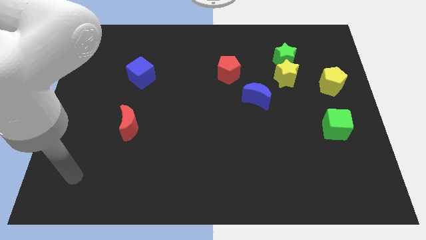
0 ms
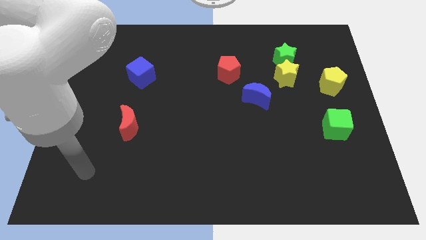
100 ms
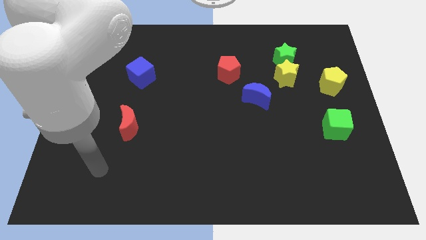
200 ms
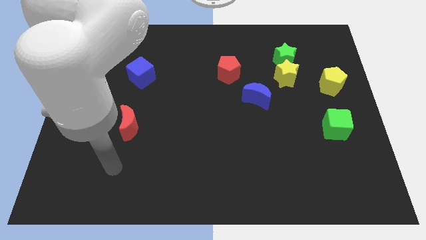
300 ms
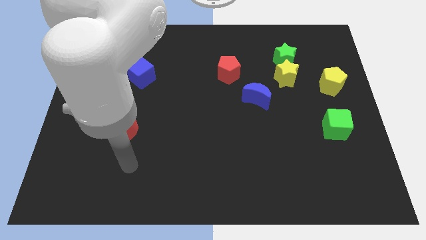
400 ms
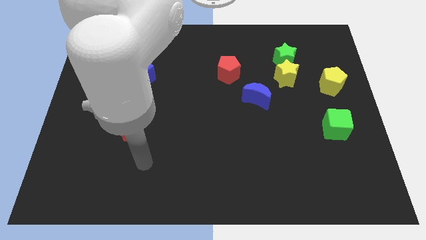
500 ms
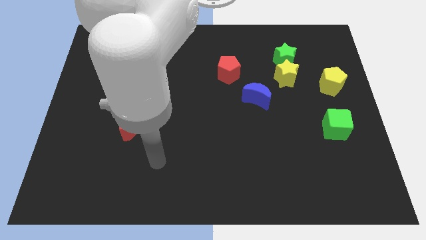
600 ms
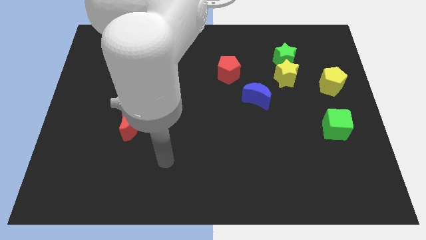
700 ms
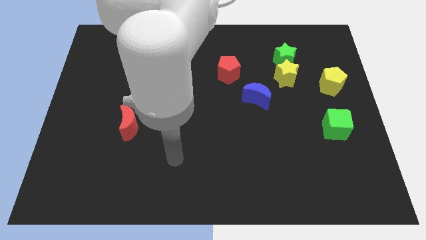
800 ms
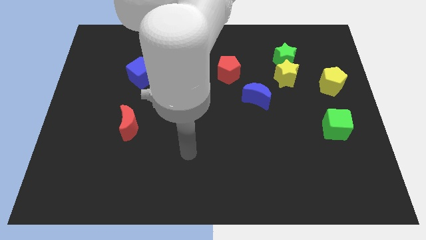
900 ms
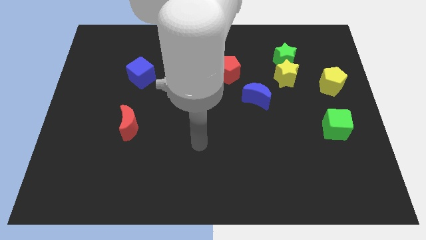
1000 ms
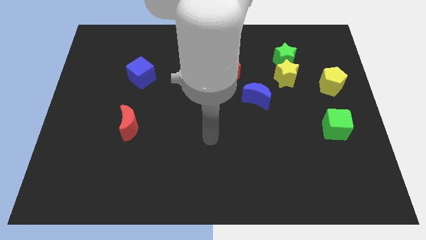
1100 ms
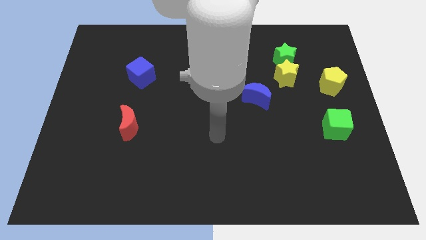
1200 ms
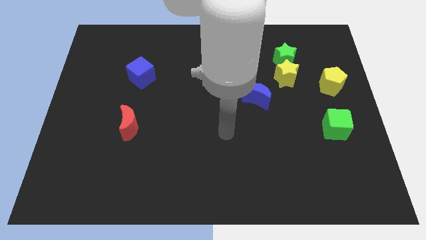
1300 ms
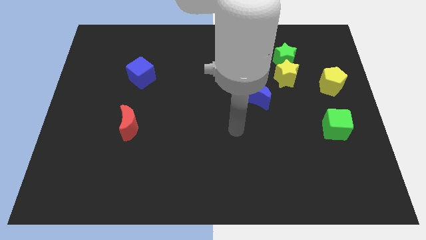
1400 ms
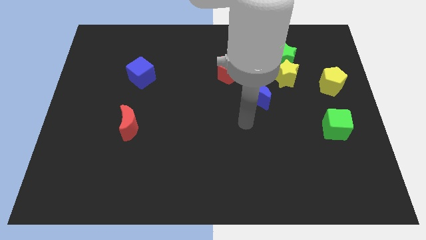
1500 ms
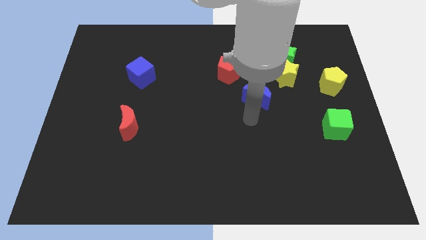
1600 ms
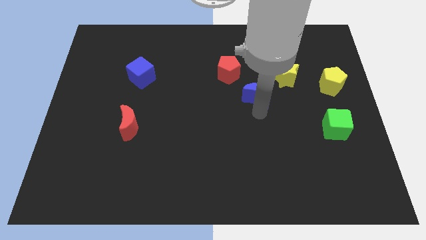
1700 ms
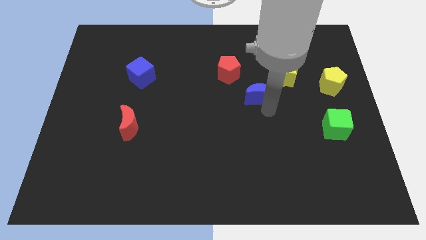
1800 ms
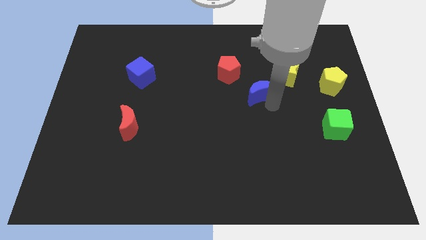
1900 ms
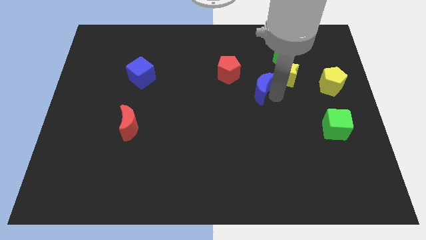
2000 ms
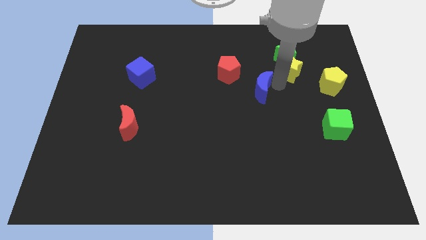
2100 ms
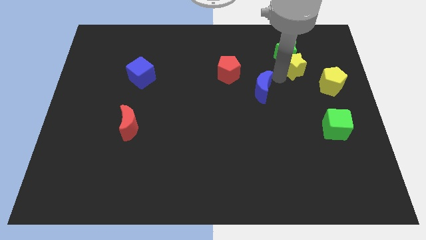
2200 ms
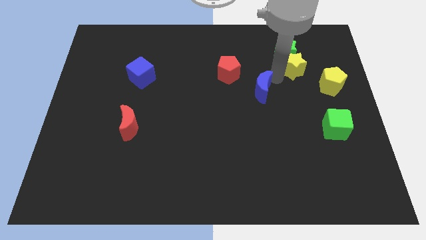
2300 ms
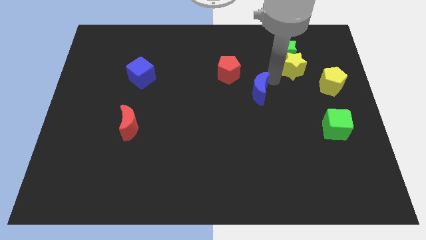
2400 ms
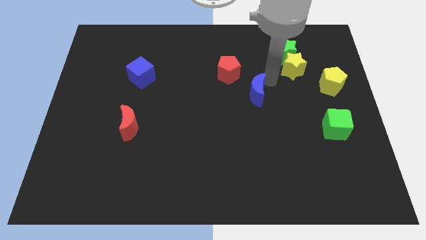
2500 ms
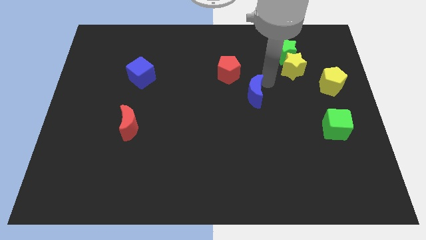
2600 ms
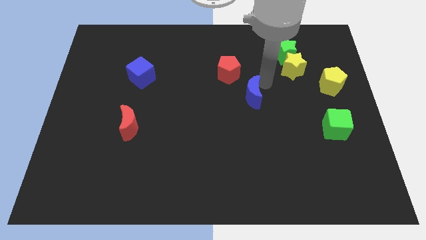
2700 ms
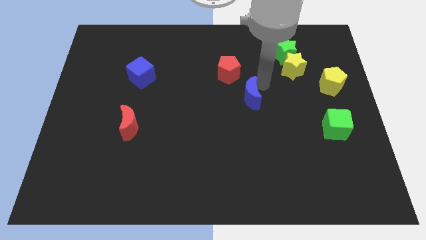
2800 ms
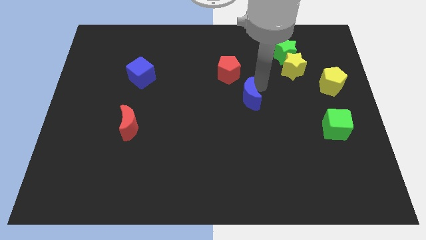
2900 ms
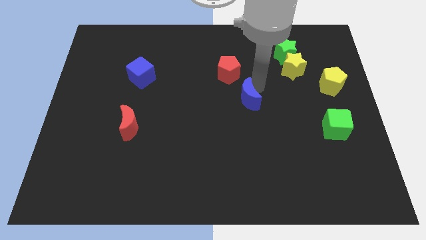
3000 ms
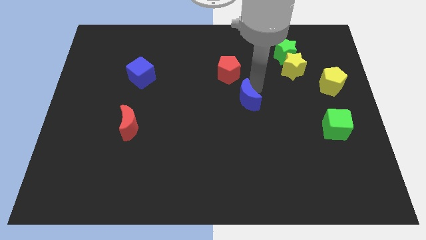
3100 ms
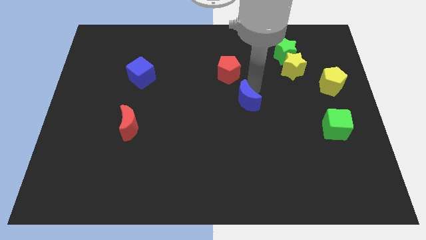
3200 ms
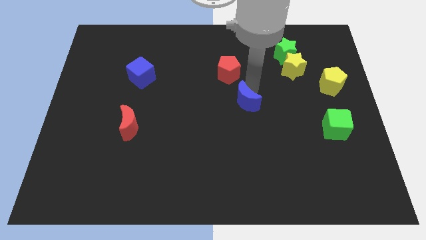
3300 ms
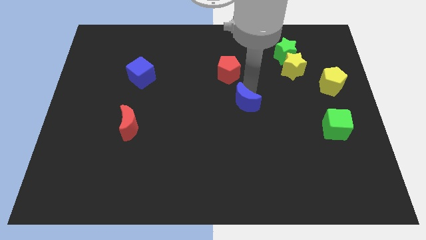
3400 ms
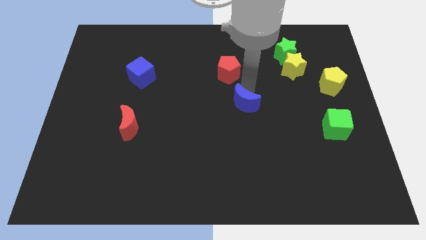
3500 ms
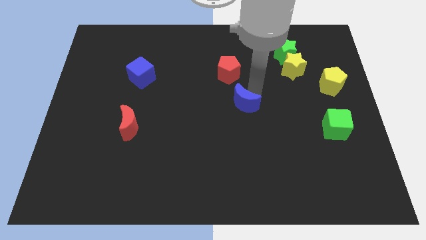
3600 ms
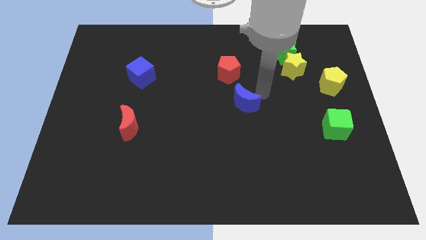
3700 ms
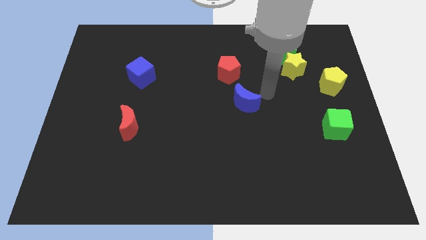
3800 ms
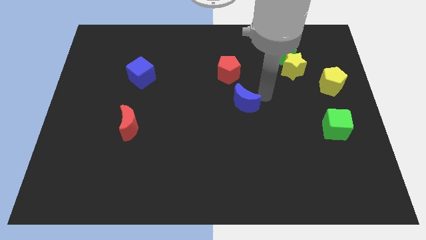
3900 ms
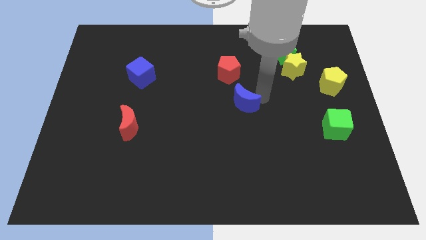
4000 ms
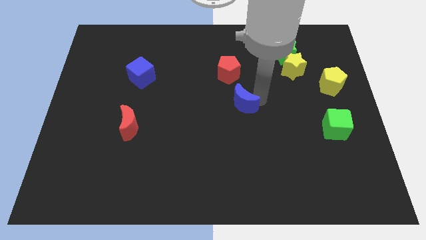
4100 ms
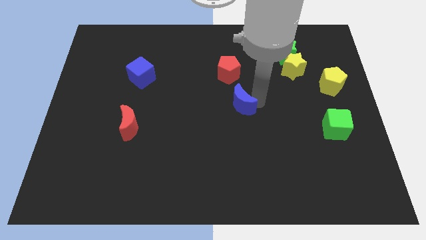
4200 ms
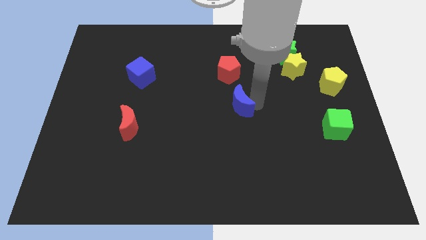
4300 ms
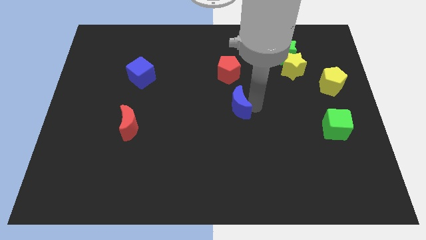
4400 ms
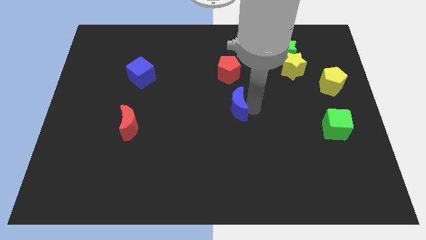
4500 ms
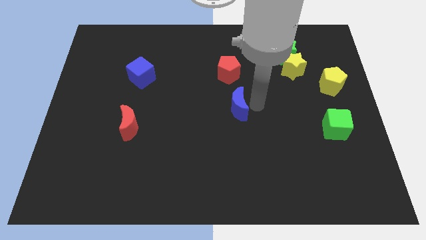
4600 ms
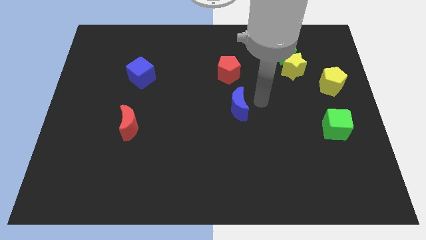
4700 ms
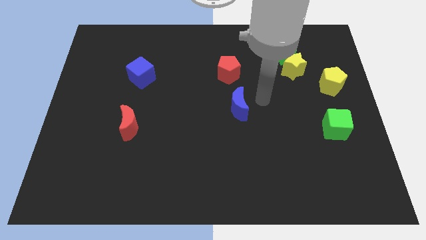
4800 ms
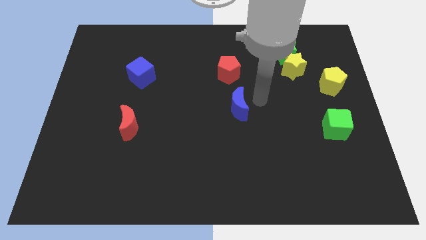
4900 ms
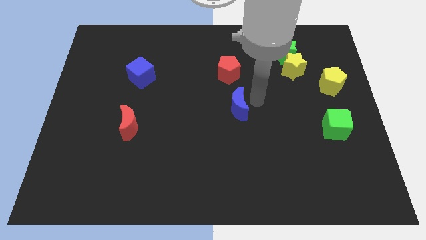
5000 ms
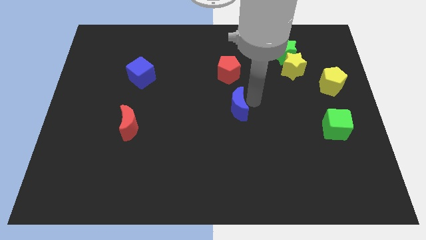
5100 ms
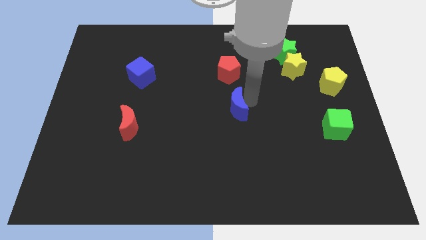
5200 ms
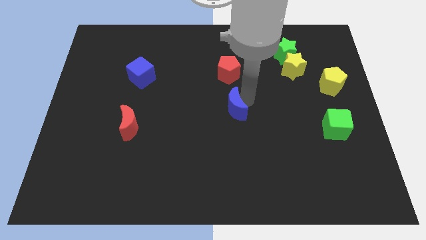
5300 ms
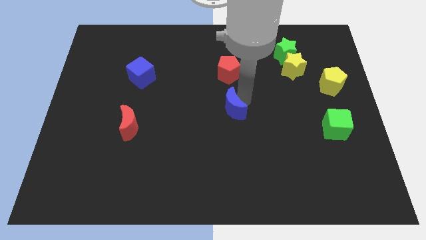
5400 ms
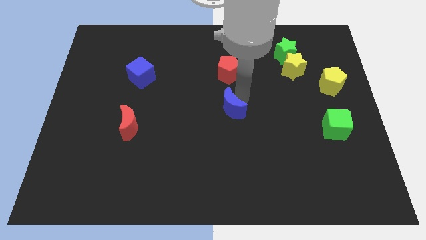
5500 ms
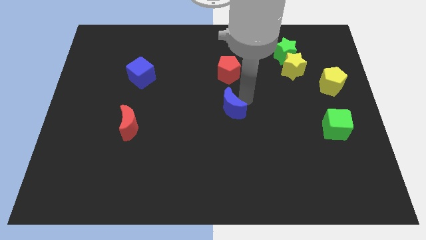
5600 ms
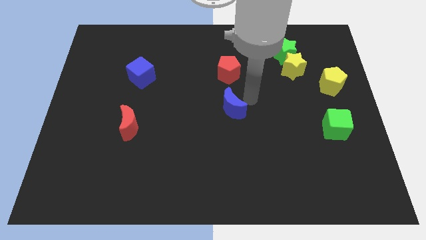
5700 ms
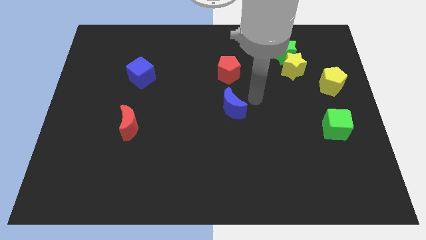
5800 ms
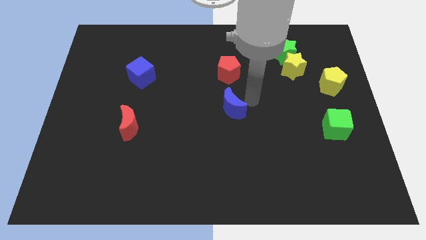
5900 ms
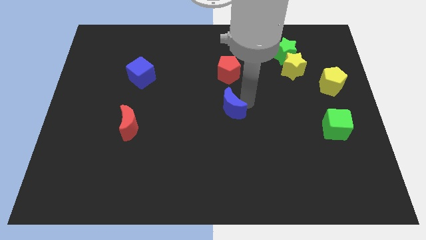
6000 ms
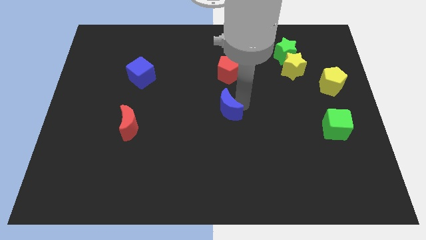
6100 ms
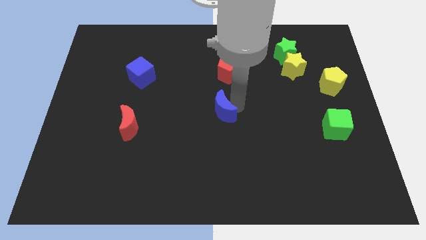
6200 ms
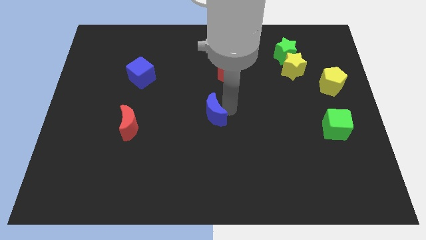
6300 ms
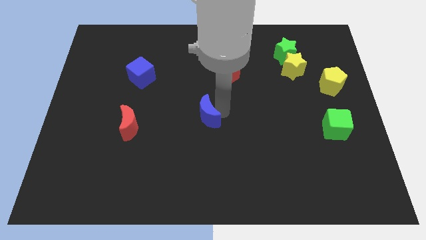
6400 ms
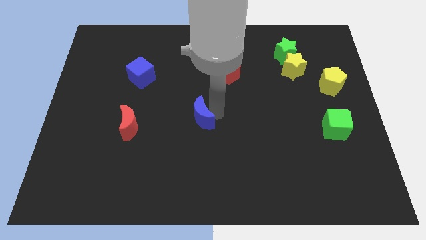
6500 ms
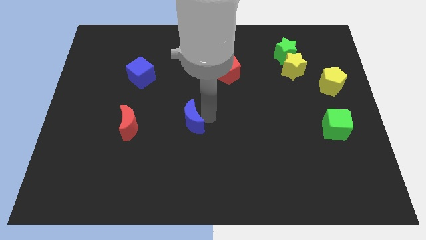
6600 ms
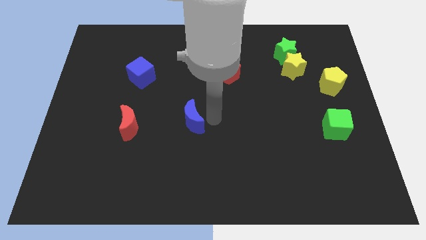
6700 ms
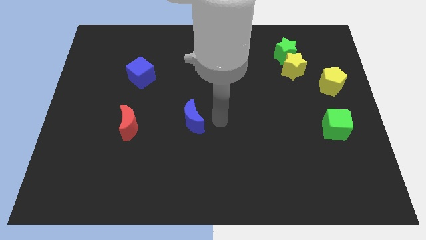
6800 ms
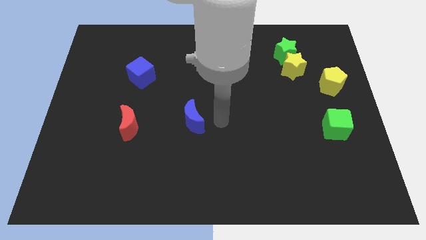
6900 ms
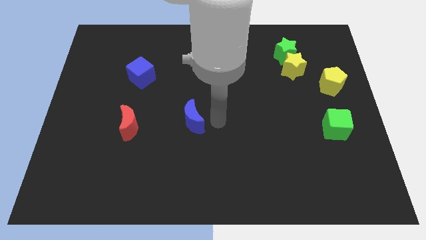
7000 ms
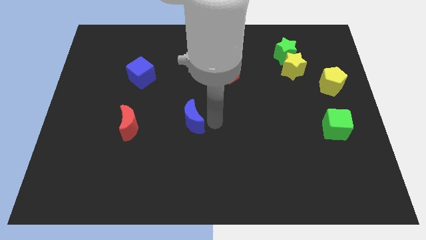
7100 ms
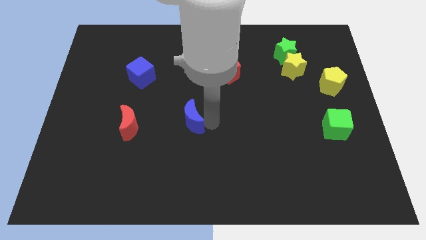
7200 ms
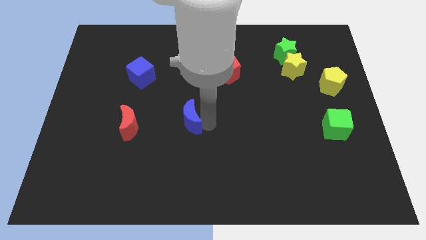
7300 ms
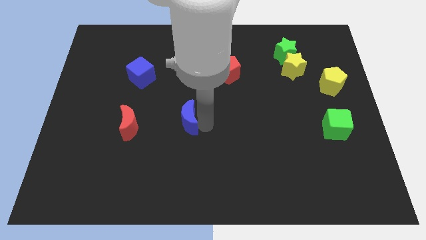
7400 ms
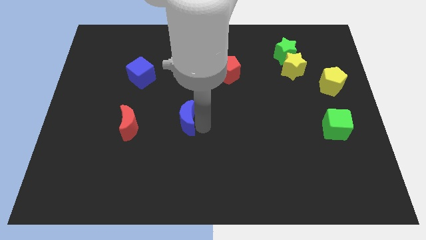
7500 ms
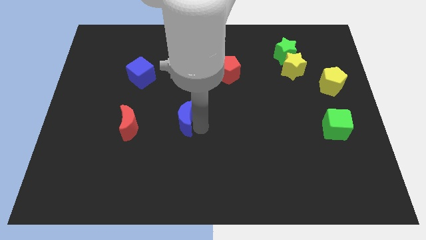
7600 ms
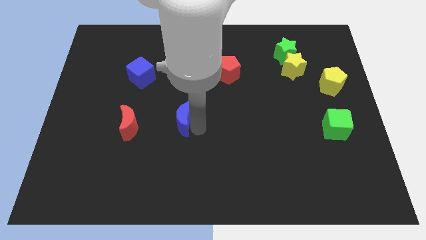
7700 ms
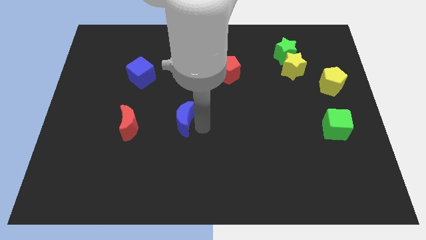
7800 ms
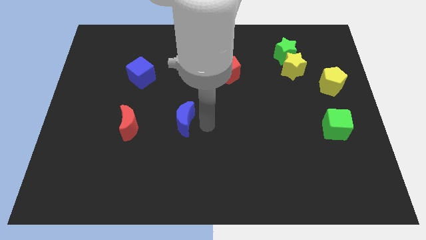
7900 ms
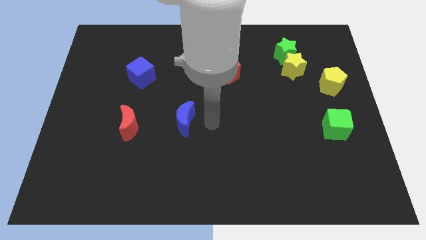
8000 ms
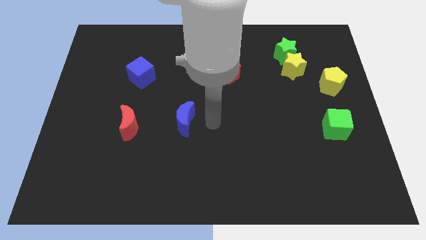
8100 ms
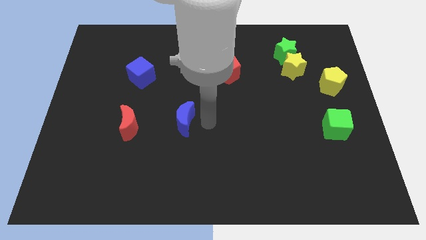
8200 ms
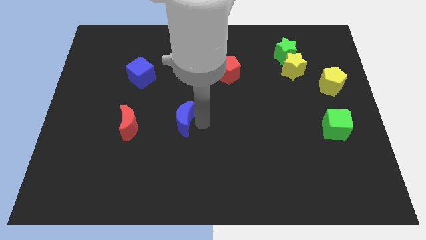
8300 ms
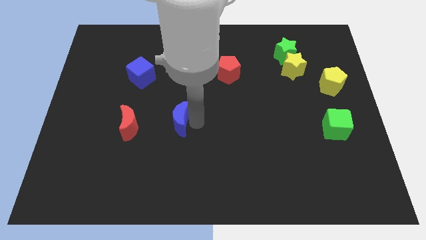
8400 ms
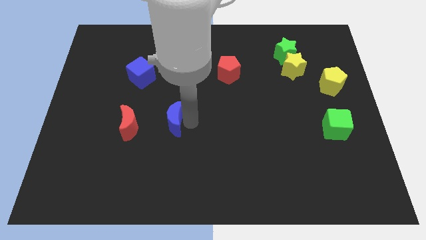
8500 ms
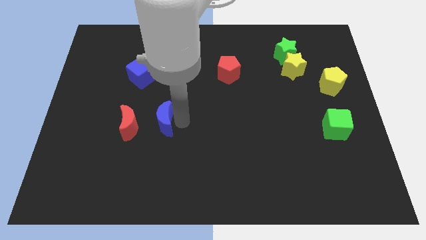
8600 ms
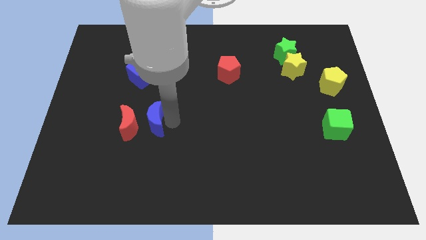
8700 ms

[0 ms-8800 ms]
push the blue moon towards the red moon
